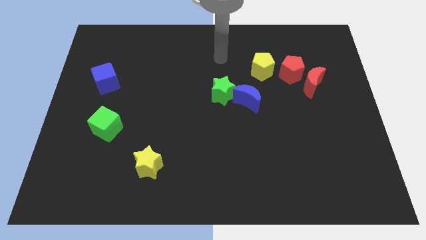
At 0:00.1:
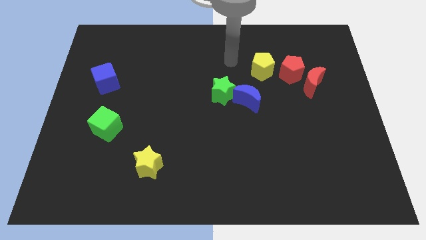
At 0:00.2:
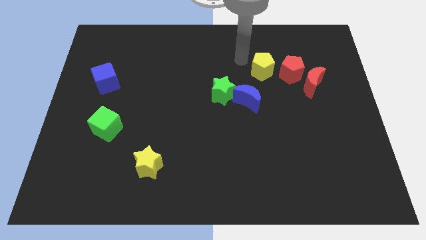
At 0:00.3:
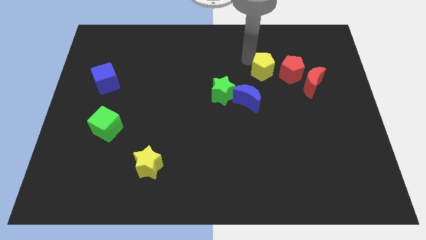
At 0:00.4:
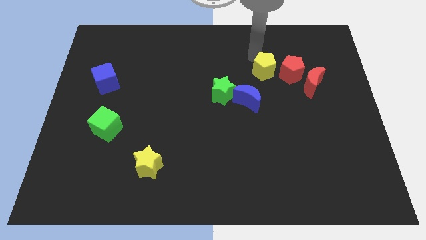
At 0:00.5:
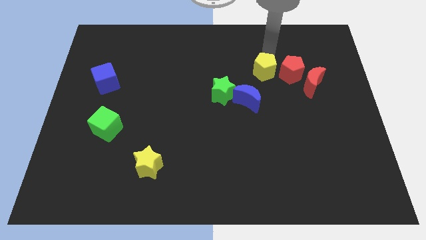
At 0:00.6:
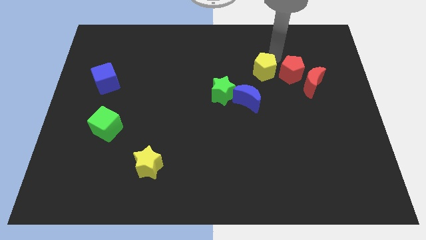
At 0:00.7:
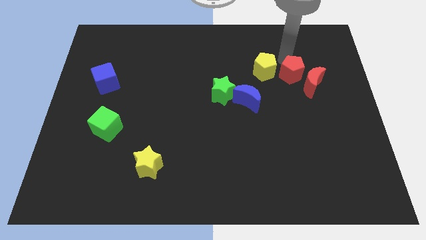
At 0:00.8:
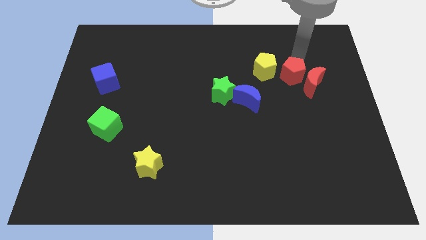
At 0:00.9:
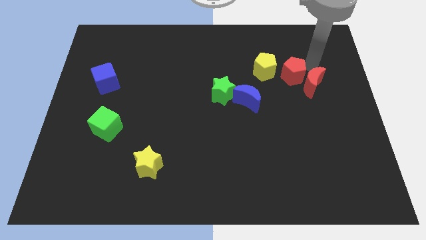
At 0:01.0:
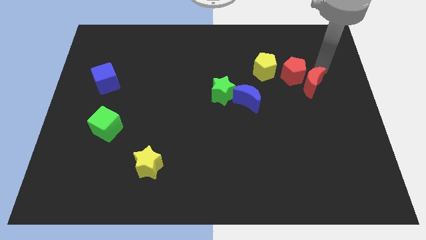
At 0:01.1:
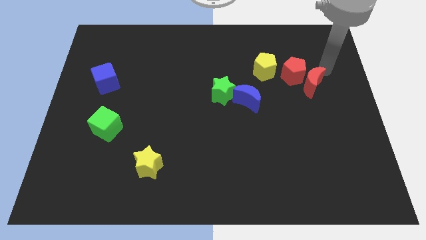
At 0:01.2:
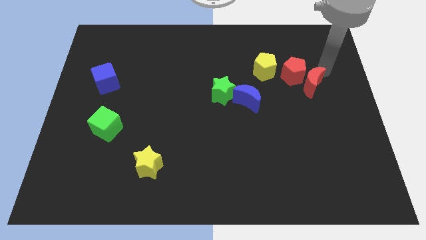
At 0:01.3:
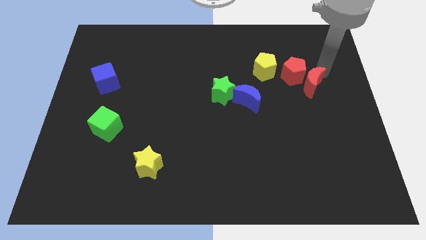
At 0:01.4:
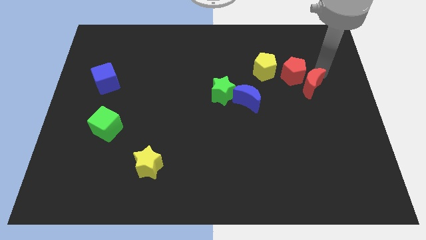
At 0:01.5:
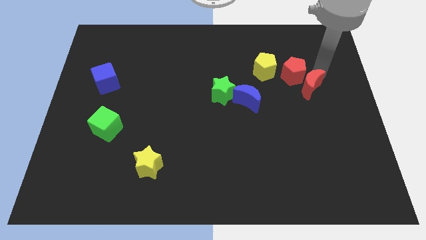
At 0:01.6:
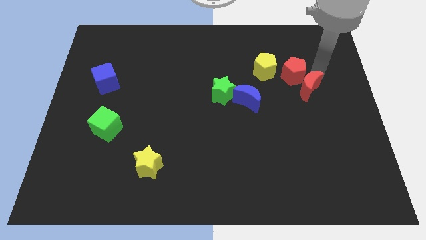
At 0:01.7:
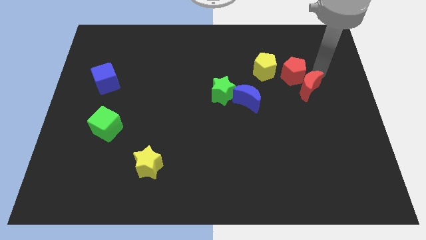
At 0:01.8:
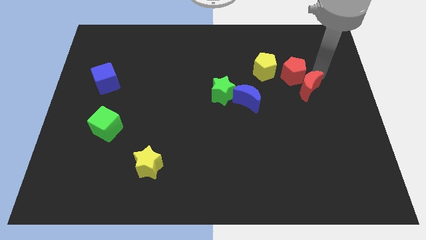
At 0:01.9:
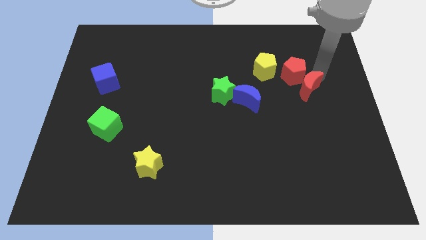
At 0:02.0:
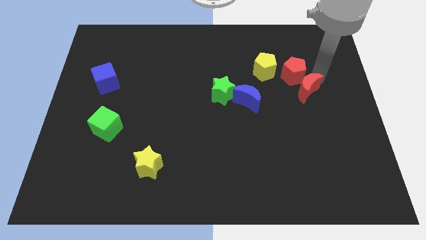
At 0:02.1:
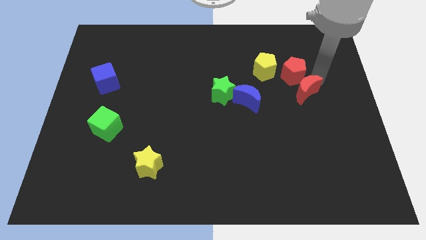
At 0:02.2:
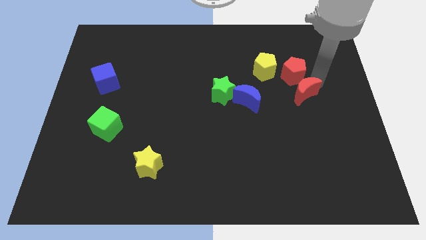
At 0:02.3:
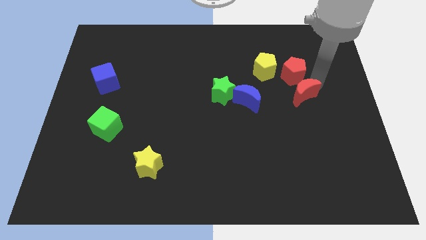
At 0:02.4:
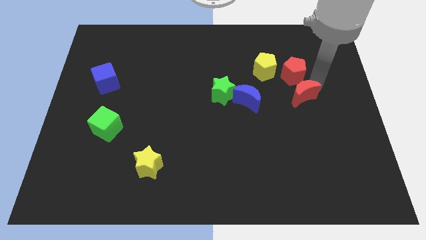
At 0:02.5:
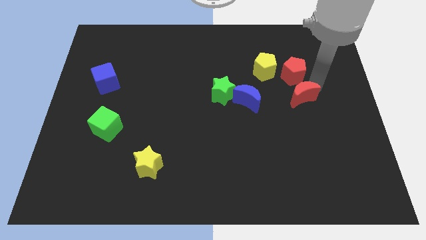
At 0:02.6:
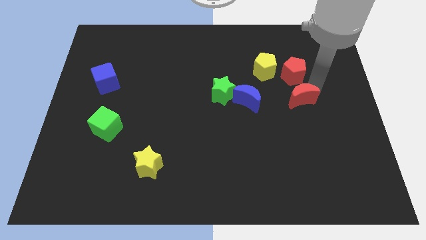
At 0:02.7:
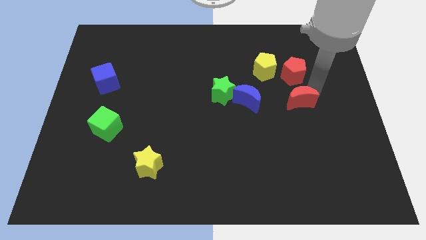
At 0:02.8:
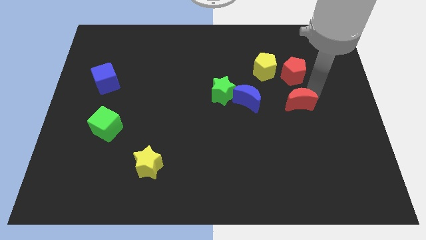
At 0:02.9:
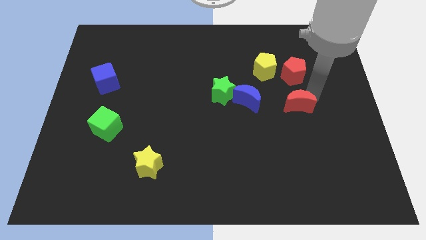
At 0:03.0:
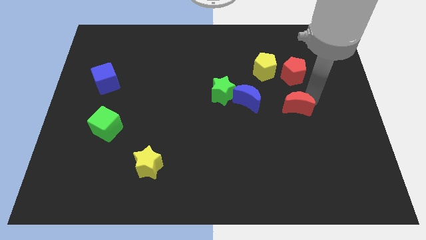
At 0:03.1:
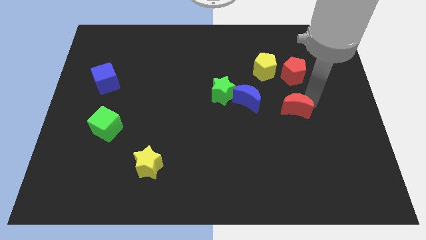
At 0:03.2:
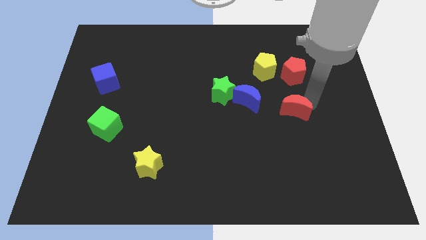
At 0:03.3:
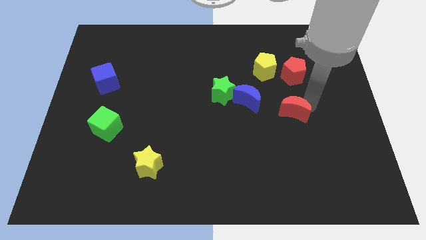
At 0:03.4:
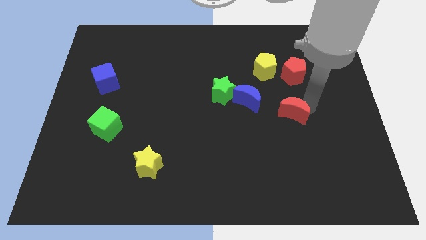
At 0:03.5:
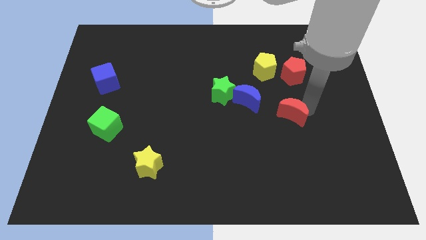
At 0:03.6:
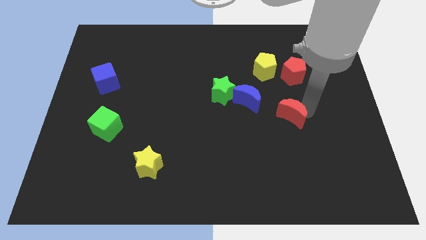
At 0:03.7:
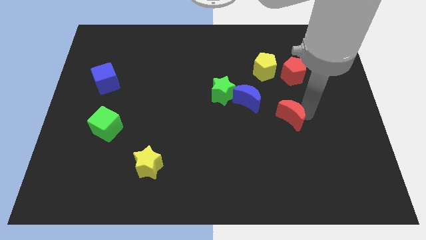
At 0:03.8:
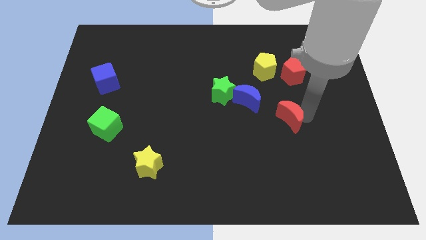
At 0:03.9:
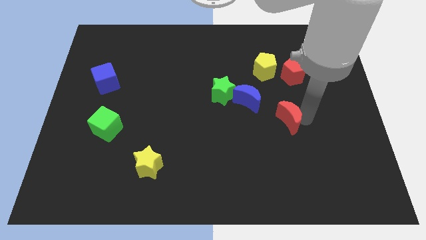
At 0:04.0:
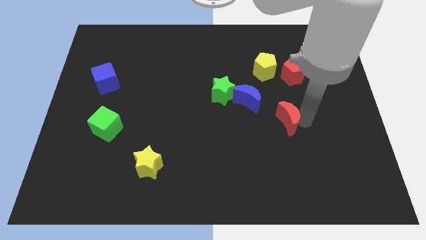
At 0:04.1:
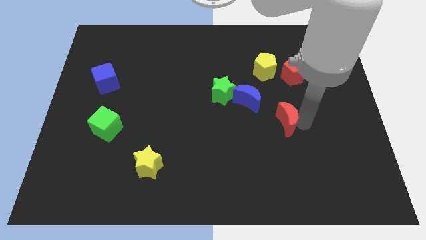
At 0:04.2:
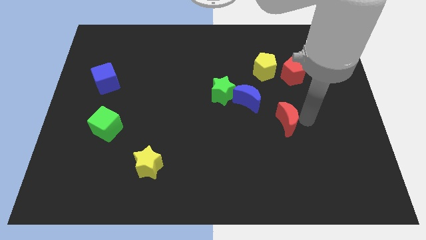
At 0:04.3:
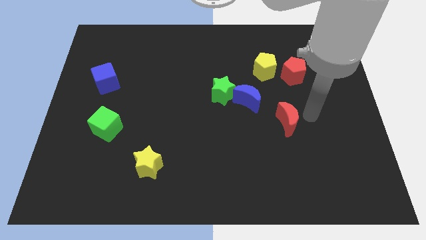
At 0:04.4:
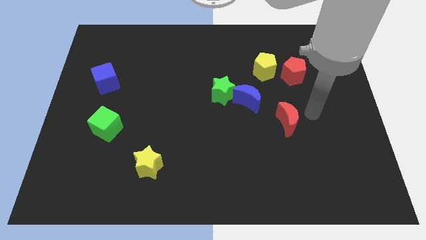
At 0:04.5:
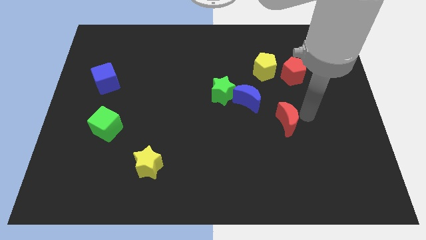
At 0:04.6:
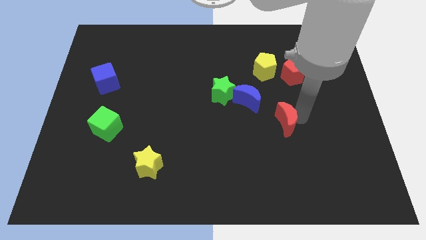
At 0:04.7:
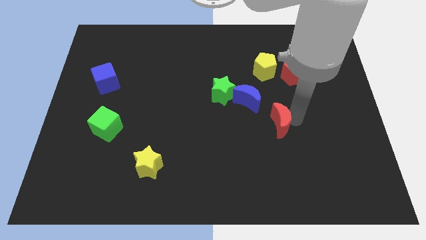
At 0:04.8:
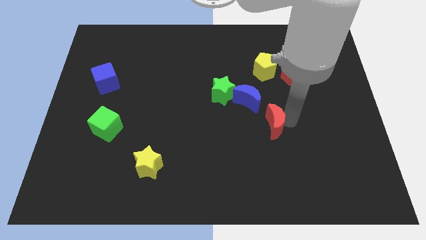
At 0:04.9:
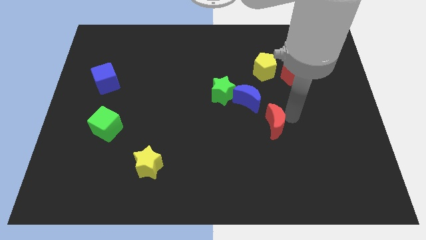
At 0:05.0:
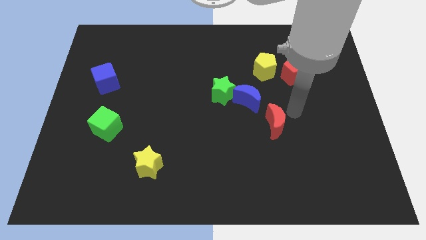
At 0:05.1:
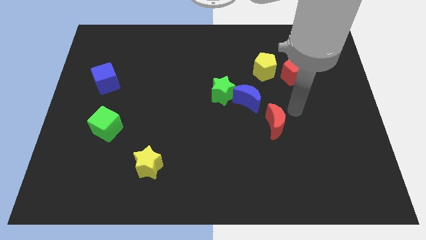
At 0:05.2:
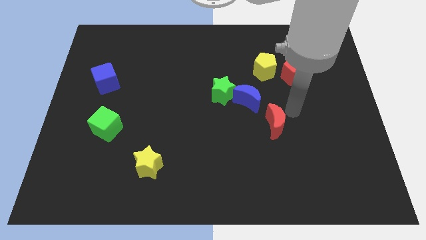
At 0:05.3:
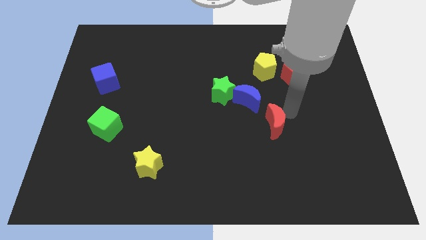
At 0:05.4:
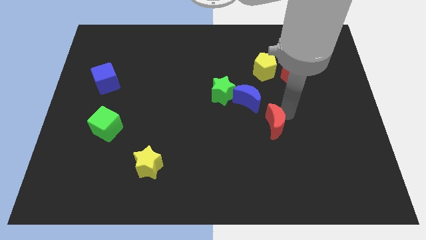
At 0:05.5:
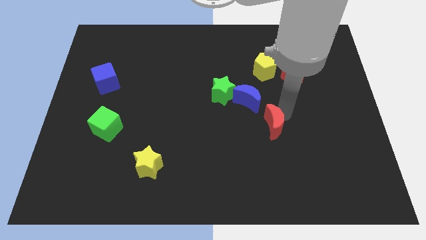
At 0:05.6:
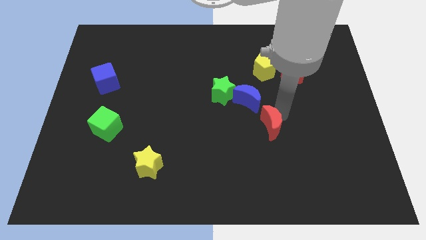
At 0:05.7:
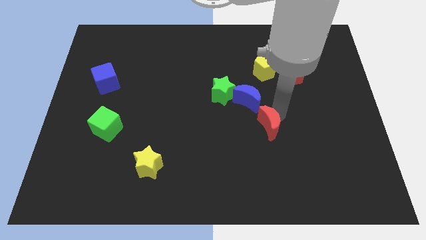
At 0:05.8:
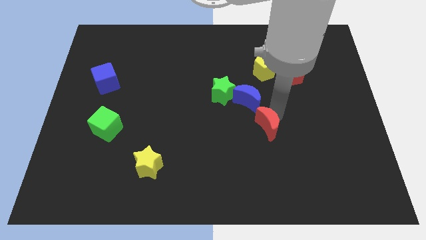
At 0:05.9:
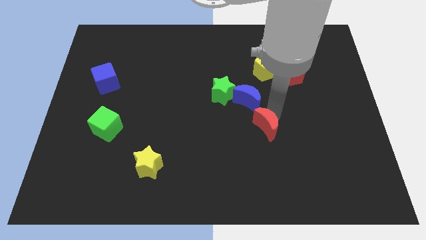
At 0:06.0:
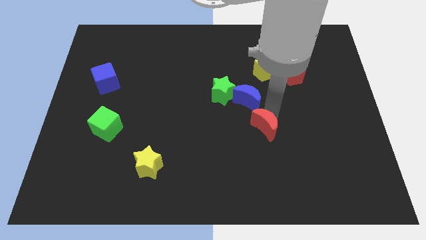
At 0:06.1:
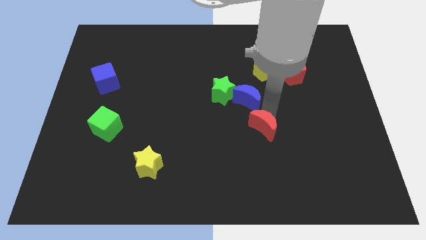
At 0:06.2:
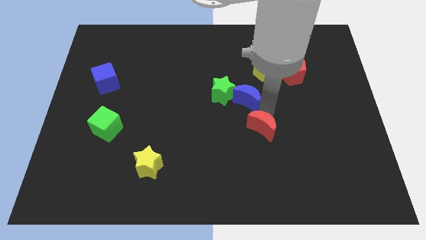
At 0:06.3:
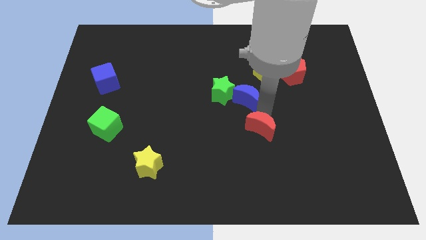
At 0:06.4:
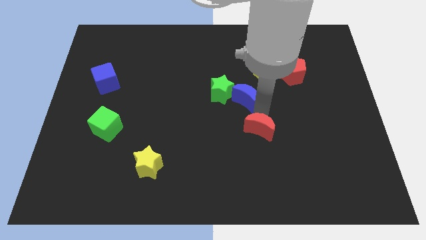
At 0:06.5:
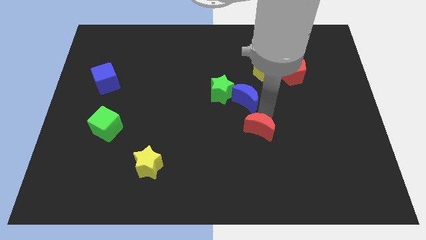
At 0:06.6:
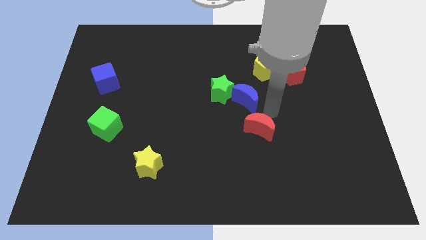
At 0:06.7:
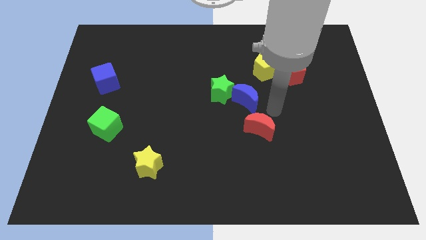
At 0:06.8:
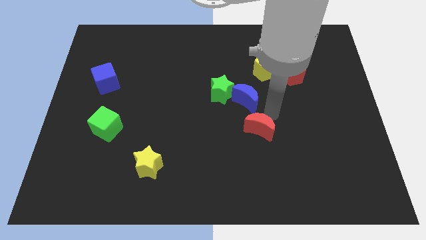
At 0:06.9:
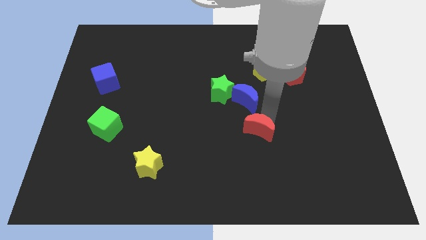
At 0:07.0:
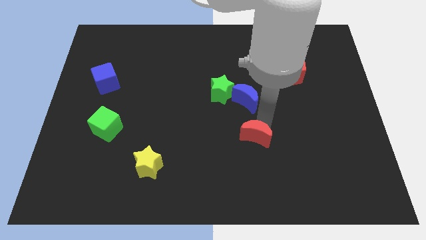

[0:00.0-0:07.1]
slide the red moon diagonally downwards and to the left

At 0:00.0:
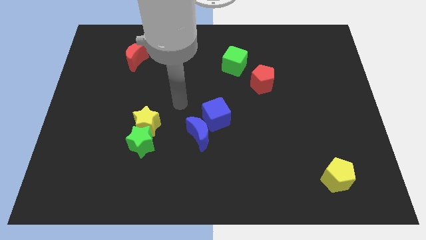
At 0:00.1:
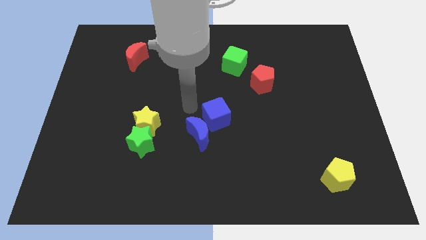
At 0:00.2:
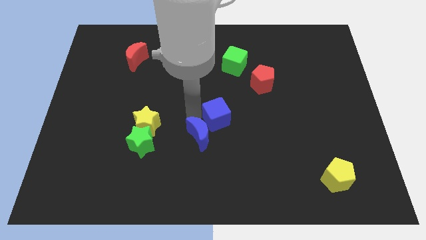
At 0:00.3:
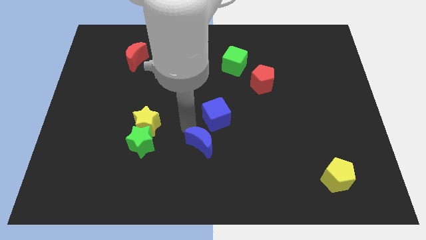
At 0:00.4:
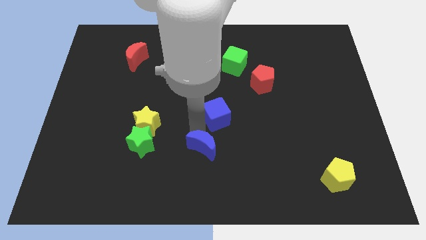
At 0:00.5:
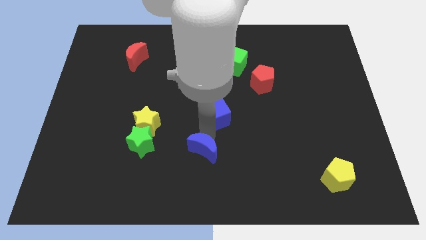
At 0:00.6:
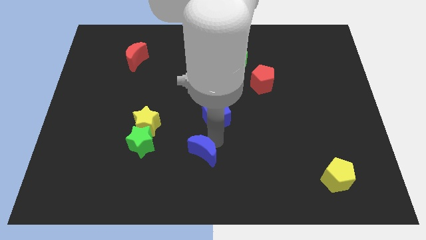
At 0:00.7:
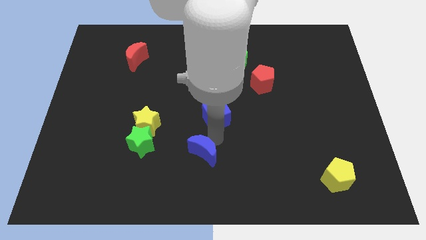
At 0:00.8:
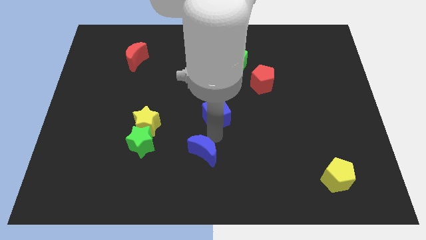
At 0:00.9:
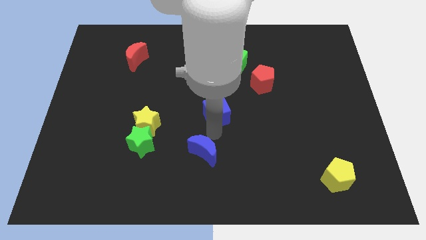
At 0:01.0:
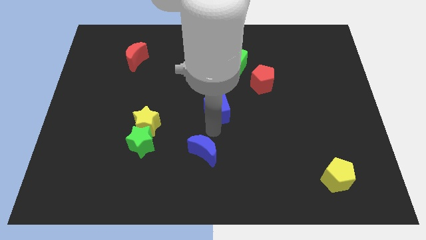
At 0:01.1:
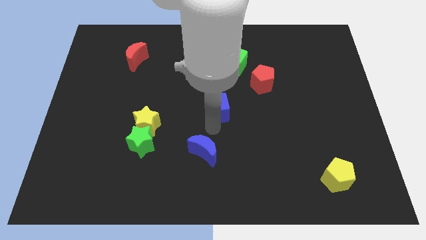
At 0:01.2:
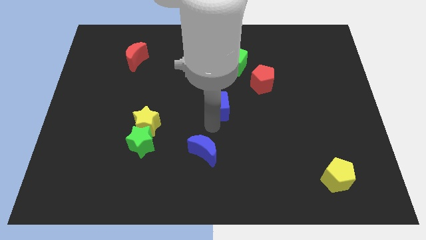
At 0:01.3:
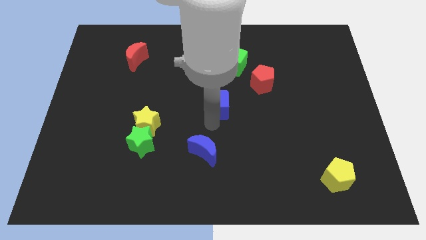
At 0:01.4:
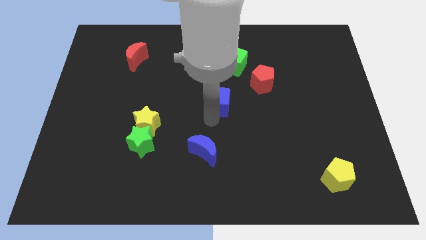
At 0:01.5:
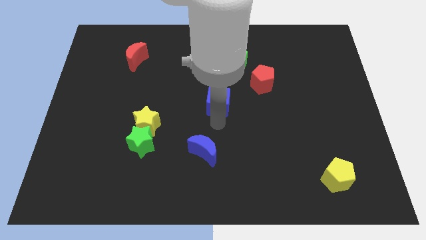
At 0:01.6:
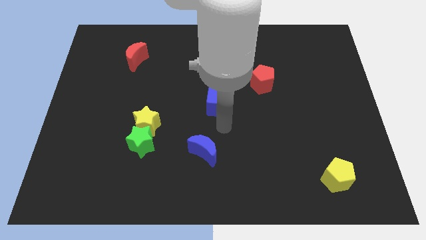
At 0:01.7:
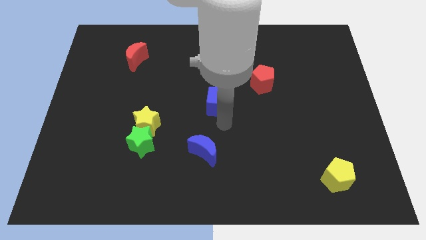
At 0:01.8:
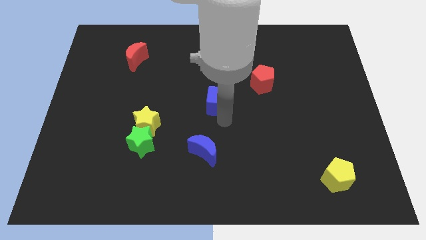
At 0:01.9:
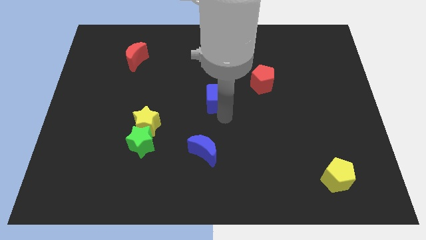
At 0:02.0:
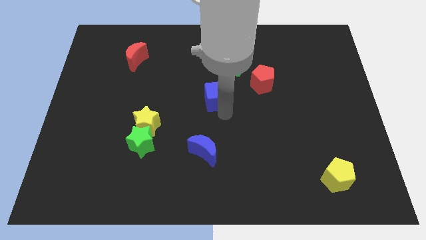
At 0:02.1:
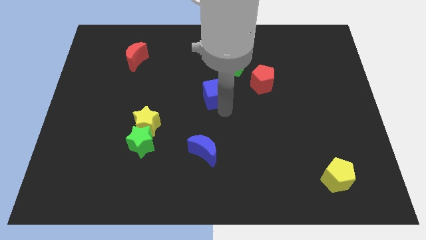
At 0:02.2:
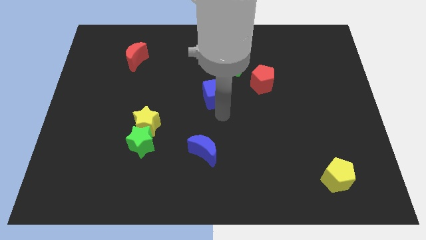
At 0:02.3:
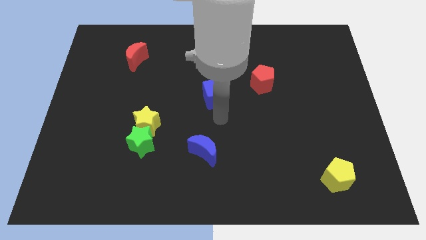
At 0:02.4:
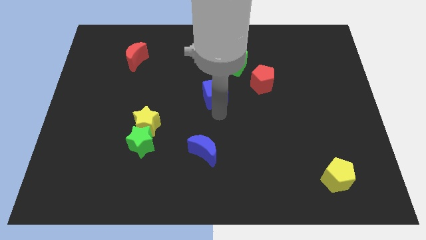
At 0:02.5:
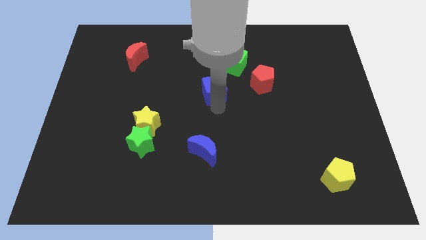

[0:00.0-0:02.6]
slightly move the blue cube up
